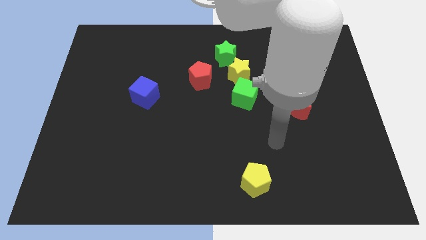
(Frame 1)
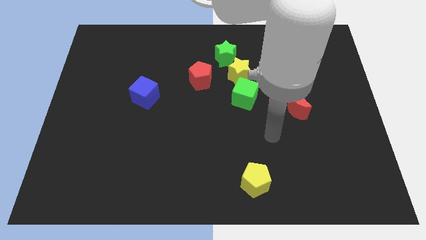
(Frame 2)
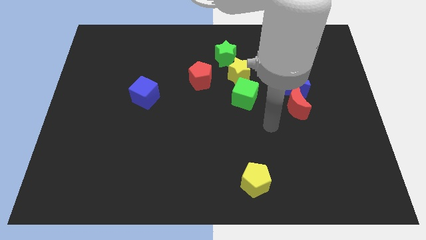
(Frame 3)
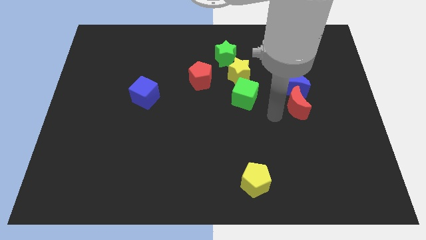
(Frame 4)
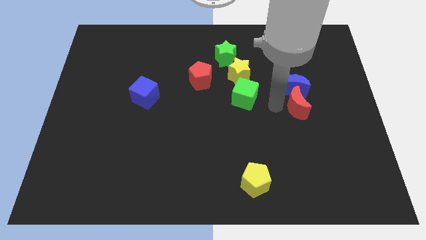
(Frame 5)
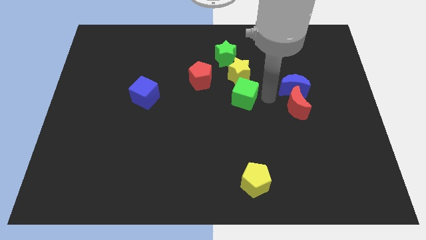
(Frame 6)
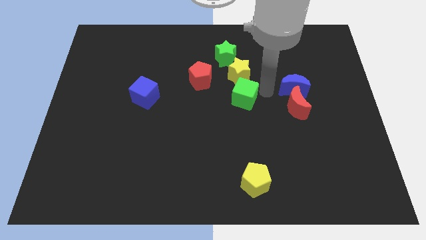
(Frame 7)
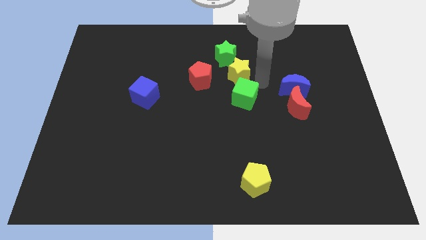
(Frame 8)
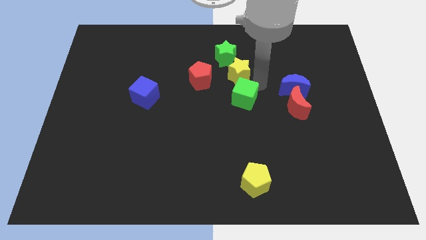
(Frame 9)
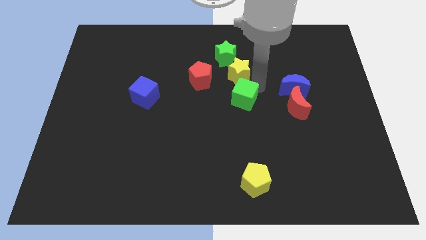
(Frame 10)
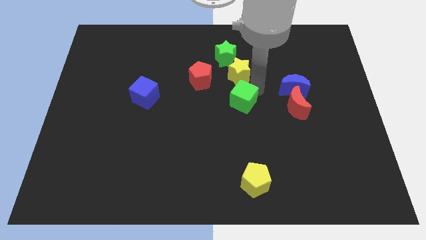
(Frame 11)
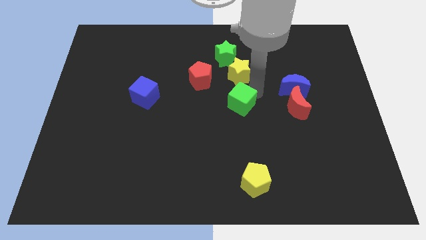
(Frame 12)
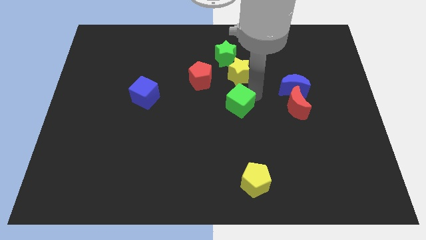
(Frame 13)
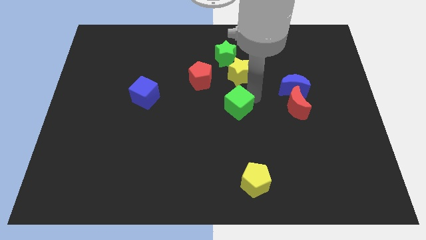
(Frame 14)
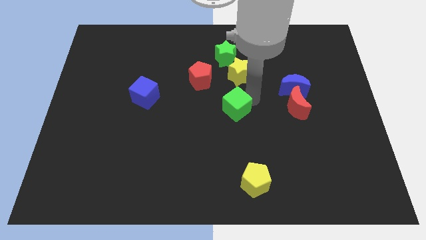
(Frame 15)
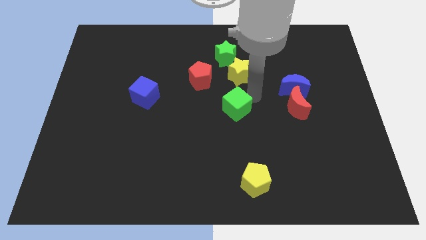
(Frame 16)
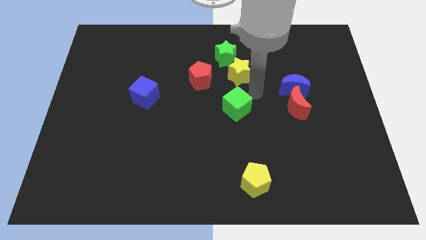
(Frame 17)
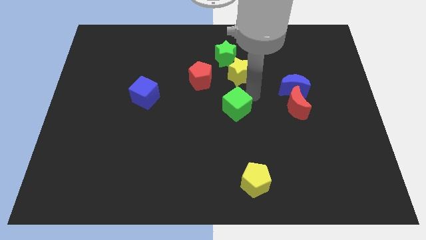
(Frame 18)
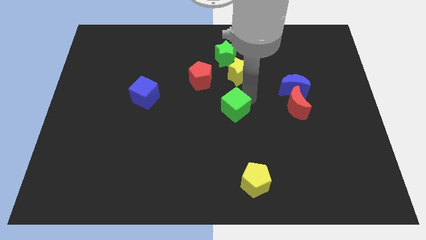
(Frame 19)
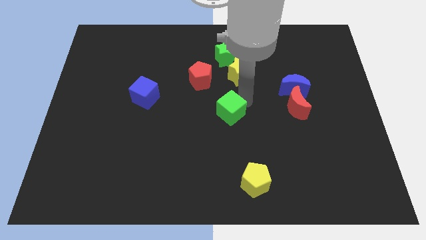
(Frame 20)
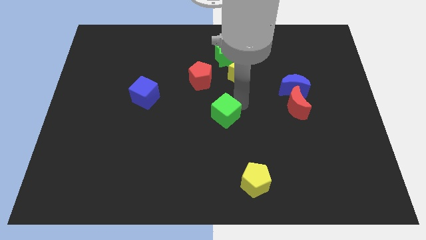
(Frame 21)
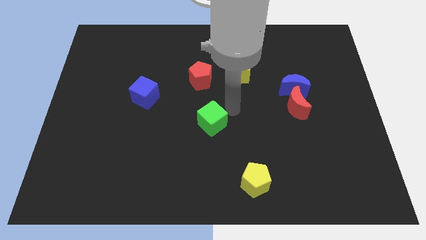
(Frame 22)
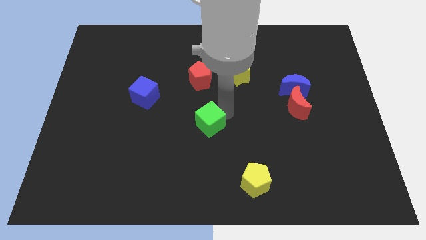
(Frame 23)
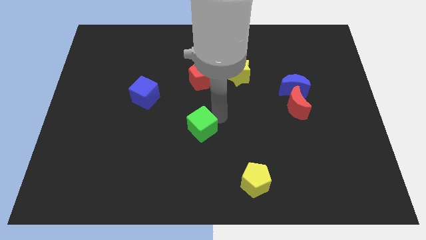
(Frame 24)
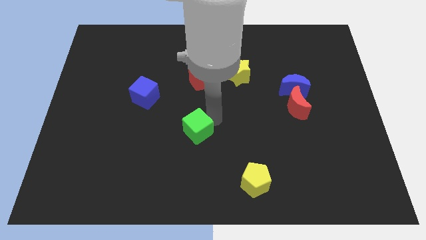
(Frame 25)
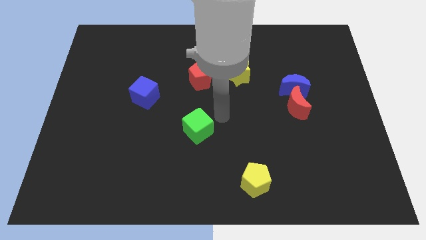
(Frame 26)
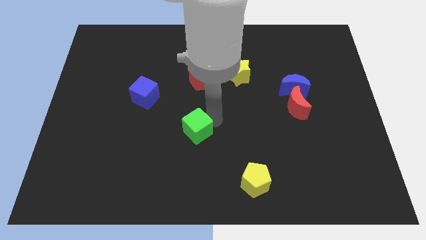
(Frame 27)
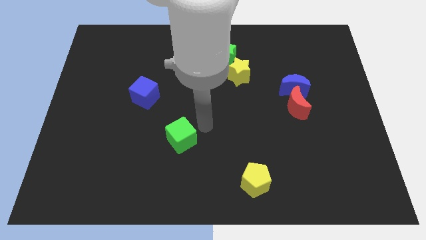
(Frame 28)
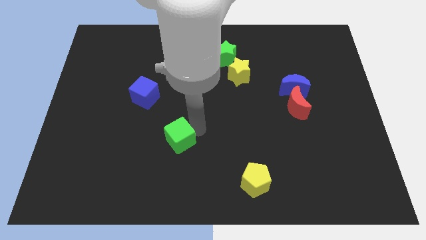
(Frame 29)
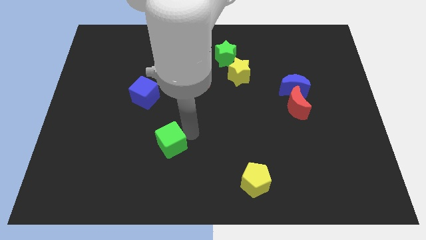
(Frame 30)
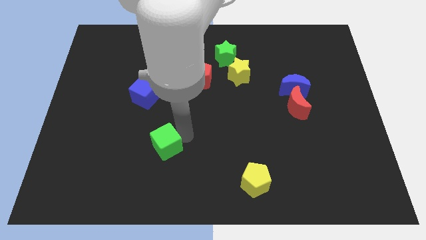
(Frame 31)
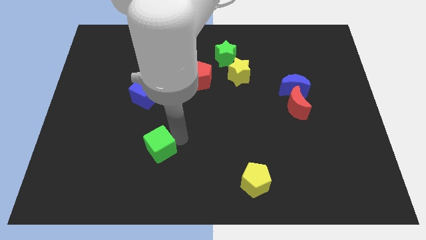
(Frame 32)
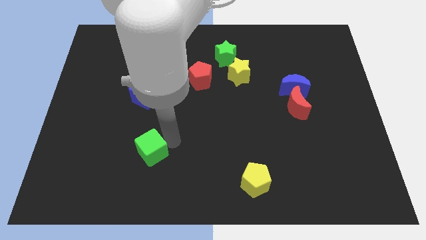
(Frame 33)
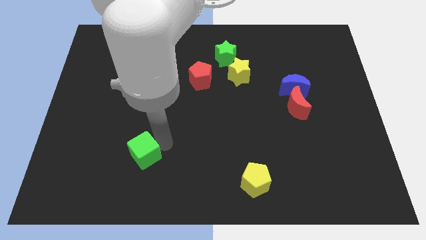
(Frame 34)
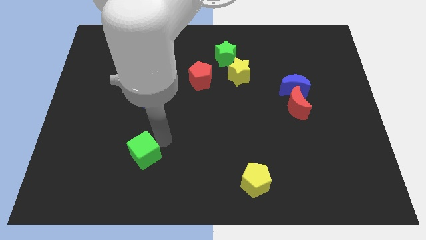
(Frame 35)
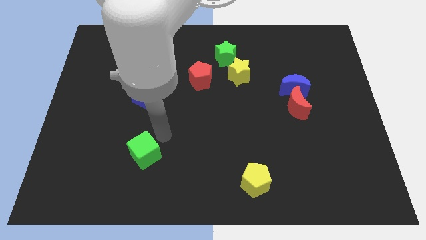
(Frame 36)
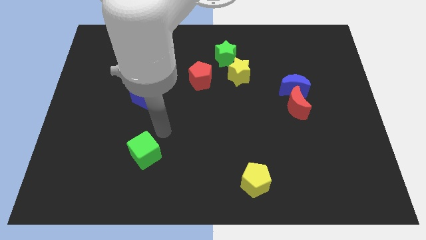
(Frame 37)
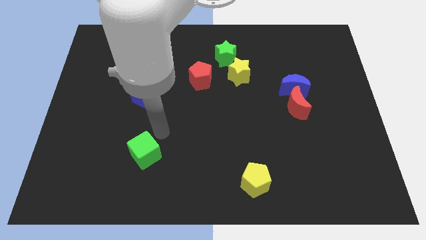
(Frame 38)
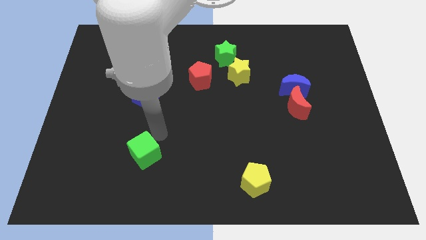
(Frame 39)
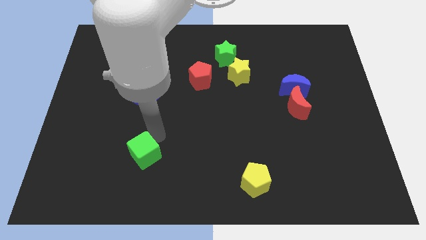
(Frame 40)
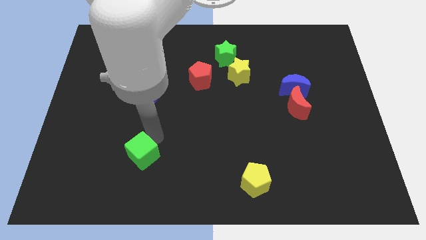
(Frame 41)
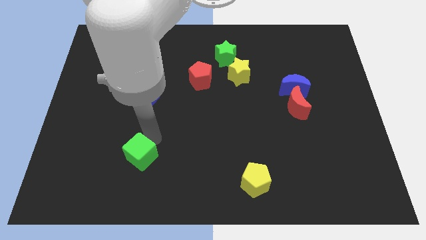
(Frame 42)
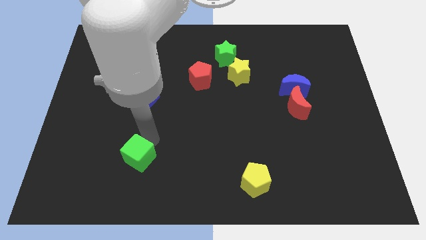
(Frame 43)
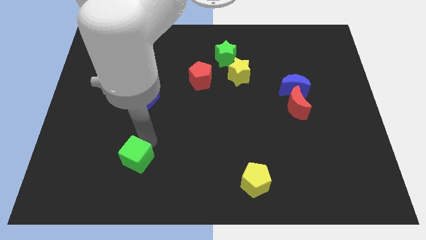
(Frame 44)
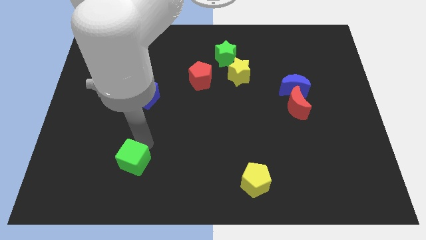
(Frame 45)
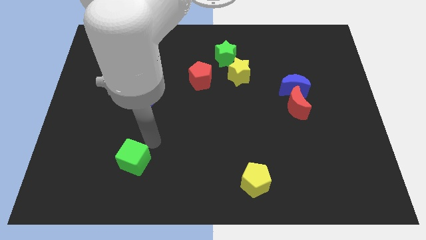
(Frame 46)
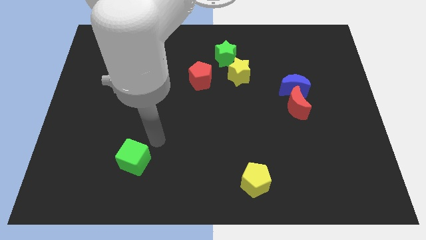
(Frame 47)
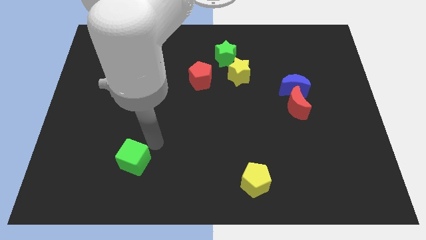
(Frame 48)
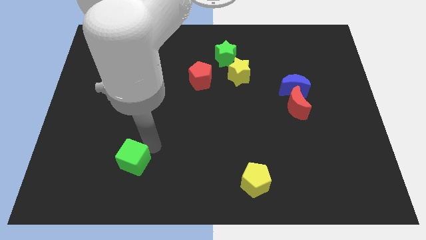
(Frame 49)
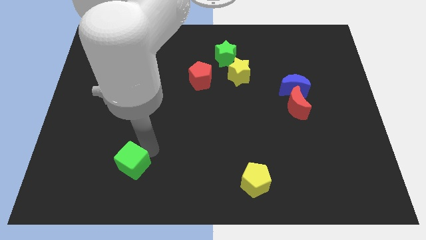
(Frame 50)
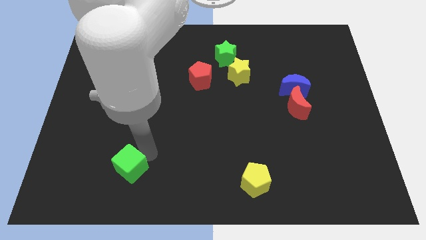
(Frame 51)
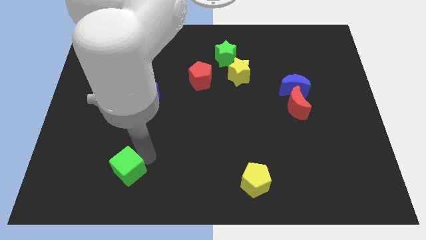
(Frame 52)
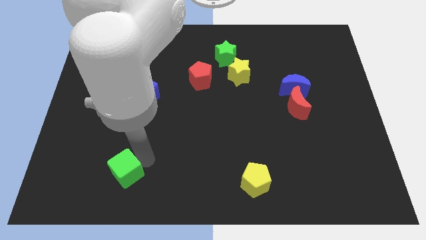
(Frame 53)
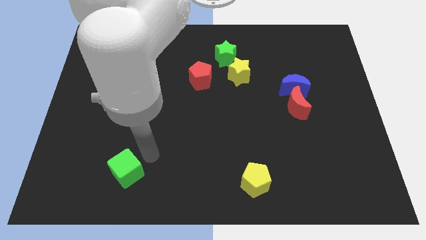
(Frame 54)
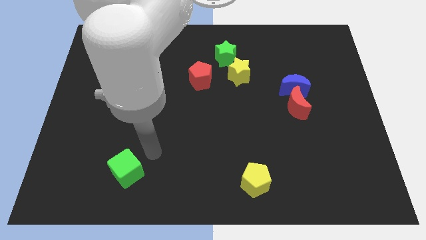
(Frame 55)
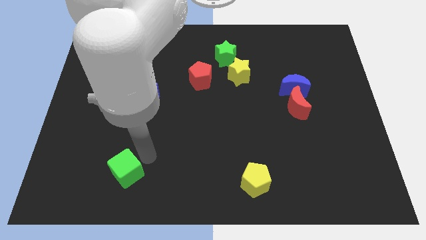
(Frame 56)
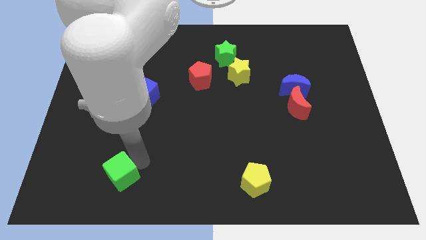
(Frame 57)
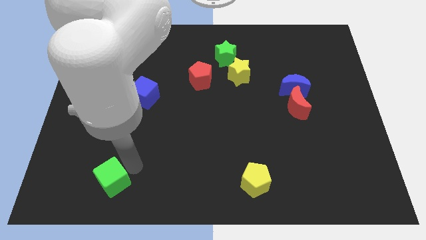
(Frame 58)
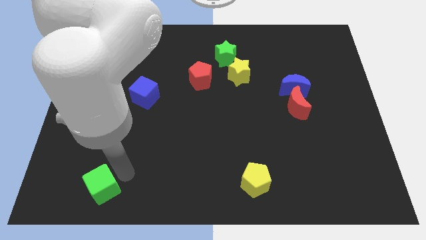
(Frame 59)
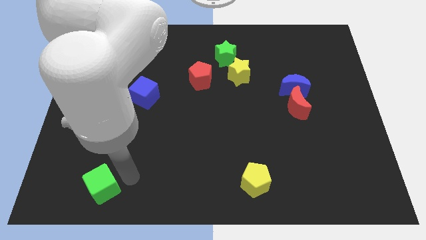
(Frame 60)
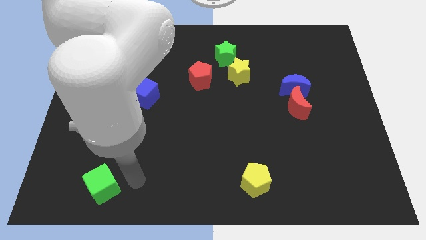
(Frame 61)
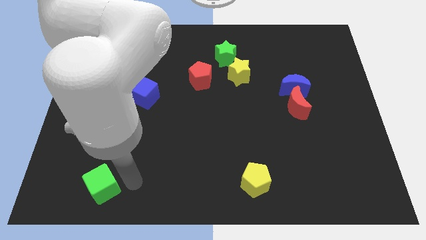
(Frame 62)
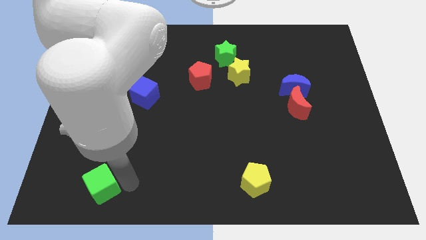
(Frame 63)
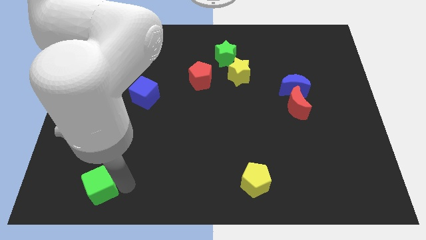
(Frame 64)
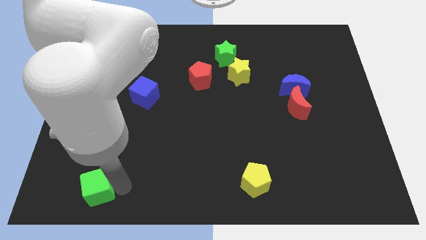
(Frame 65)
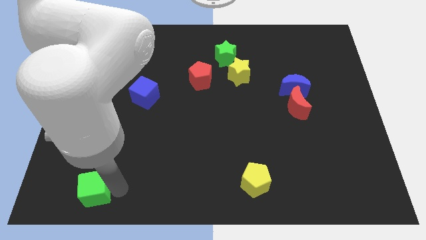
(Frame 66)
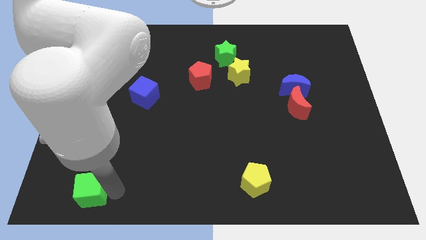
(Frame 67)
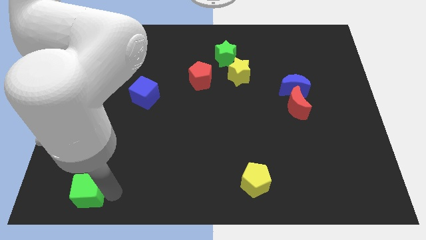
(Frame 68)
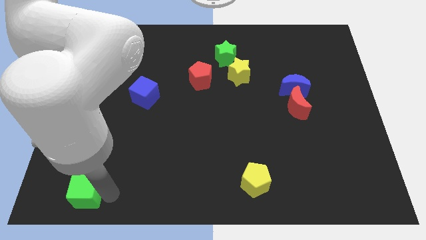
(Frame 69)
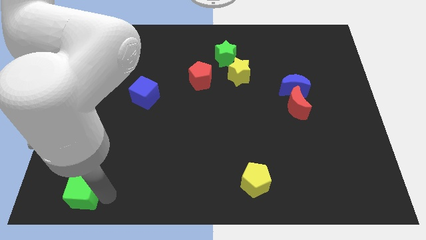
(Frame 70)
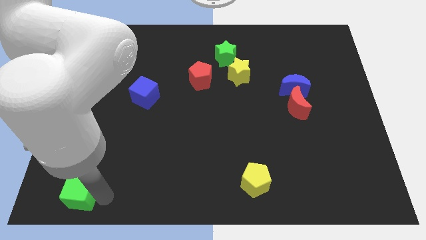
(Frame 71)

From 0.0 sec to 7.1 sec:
push the green cube to the bottom left corner
